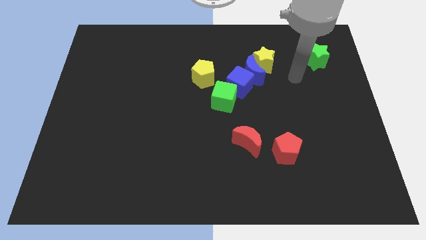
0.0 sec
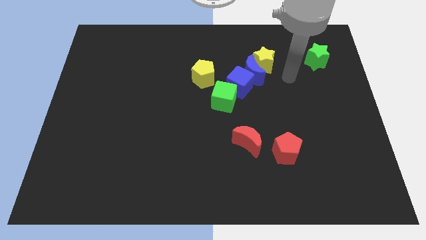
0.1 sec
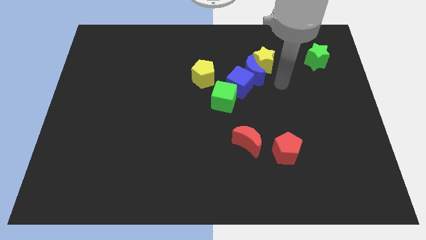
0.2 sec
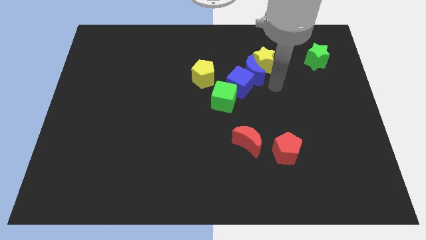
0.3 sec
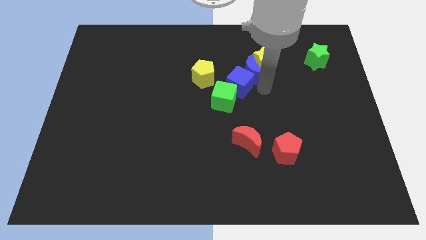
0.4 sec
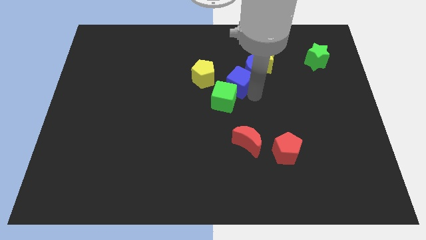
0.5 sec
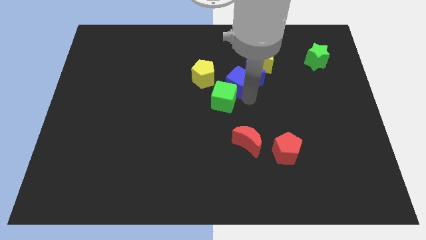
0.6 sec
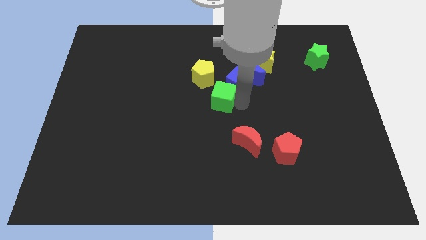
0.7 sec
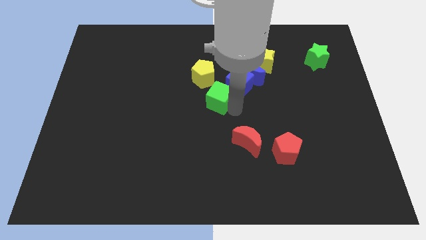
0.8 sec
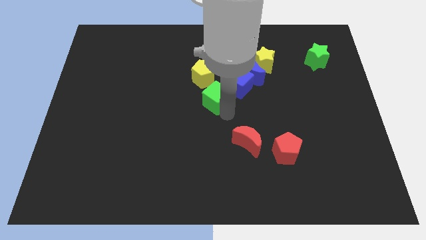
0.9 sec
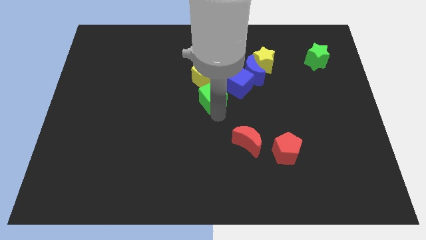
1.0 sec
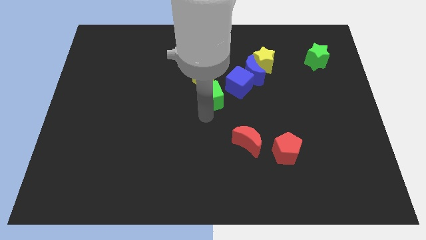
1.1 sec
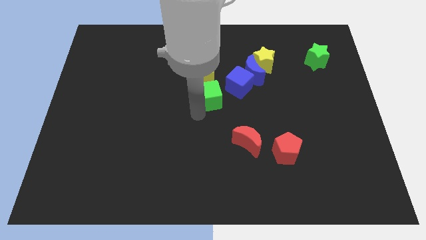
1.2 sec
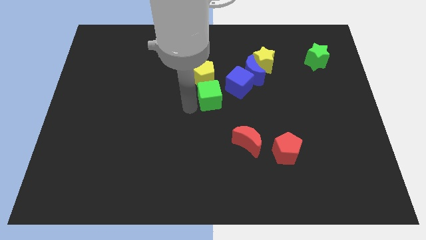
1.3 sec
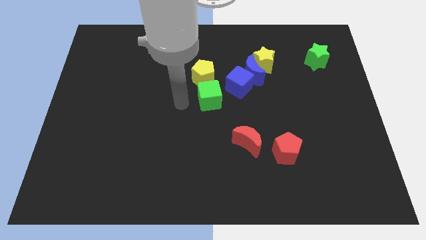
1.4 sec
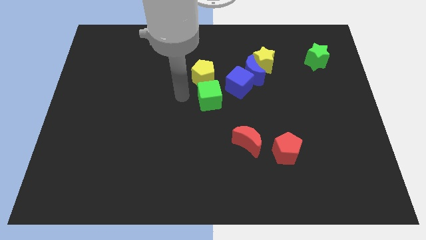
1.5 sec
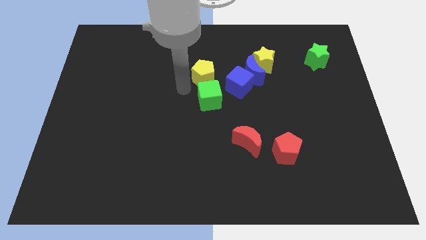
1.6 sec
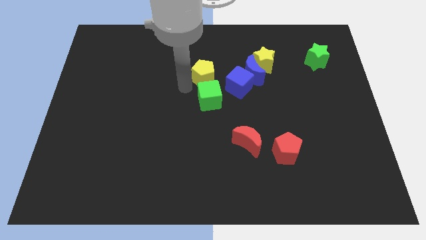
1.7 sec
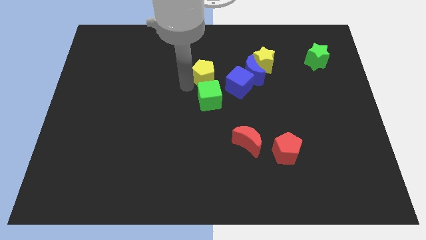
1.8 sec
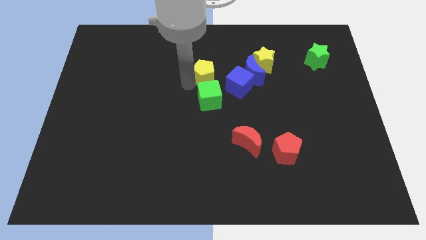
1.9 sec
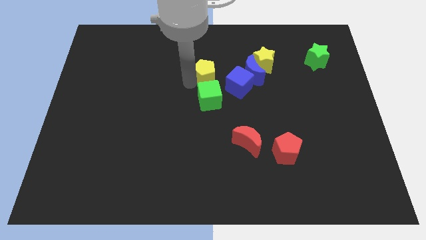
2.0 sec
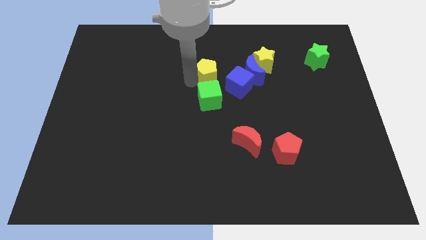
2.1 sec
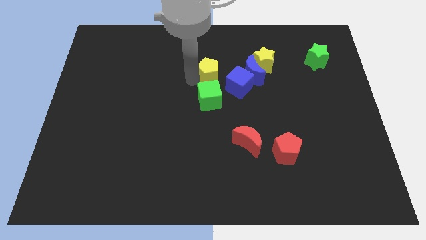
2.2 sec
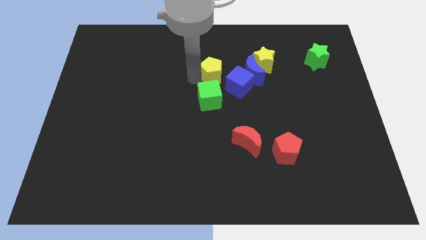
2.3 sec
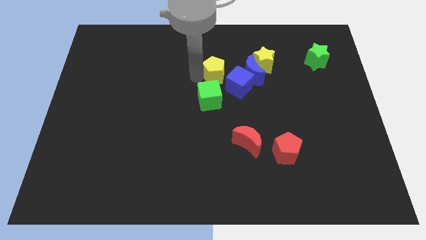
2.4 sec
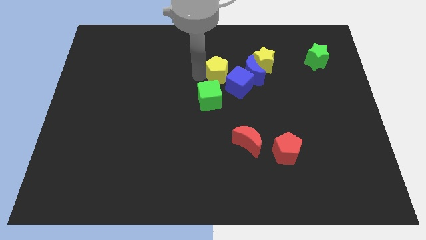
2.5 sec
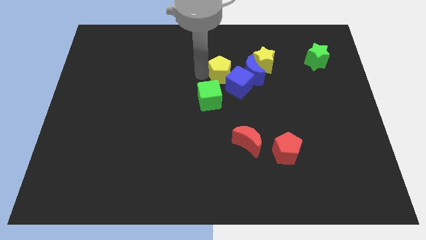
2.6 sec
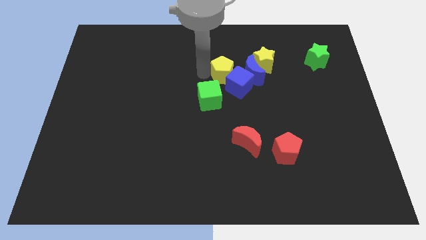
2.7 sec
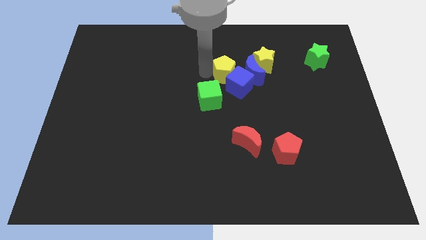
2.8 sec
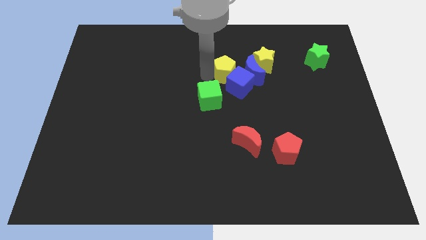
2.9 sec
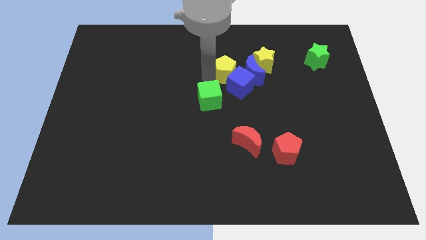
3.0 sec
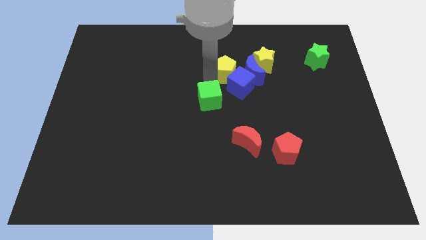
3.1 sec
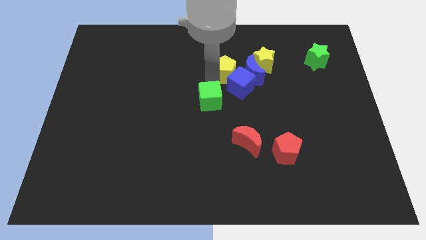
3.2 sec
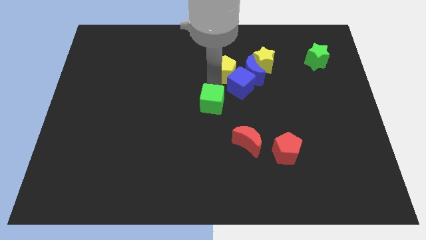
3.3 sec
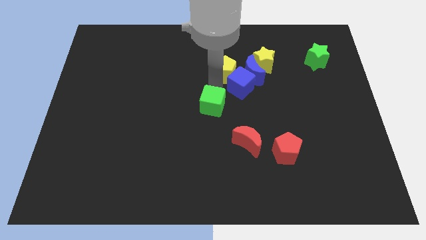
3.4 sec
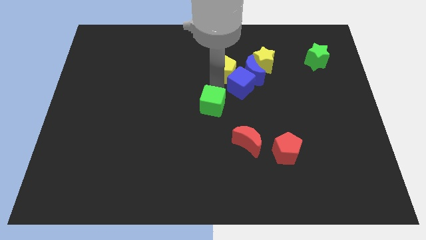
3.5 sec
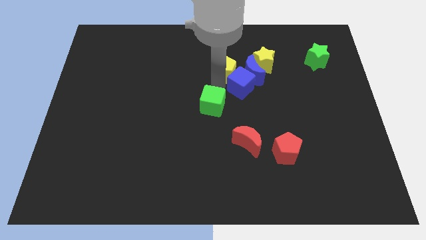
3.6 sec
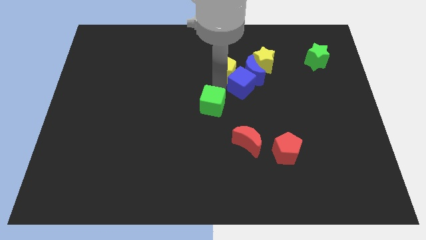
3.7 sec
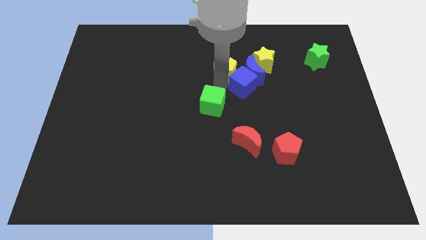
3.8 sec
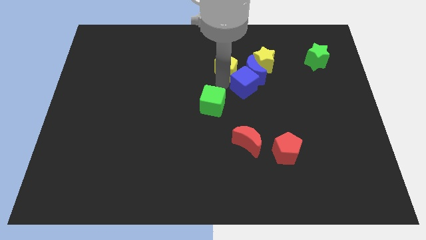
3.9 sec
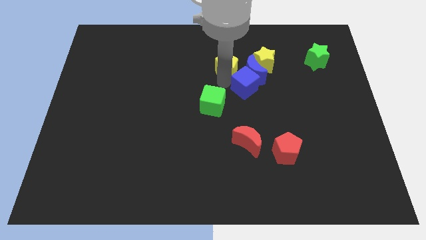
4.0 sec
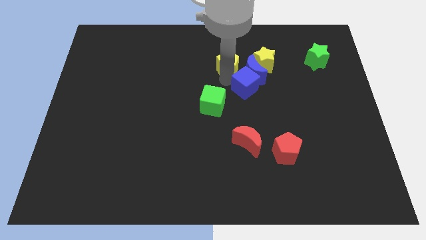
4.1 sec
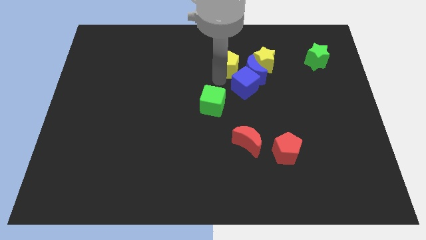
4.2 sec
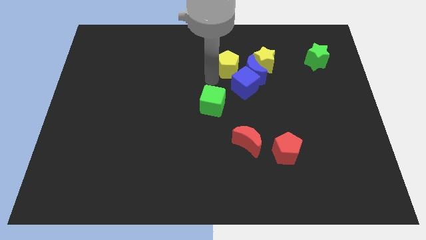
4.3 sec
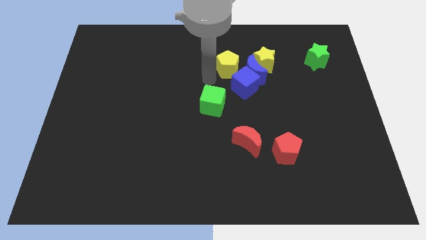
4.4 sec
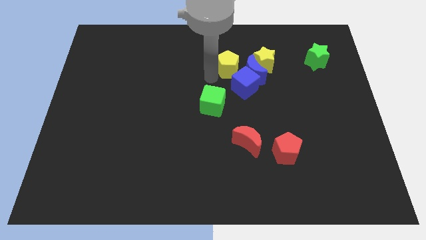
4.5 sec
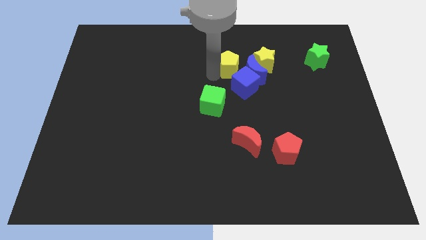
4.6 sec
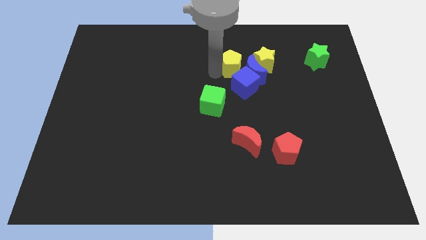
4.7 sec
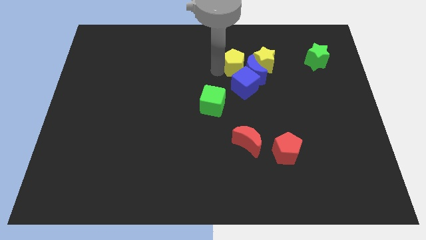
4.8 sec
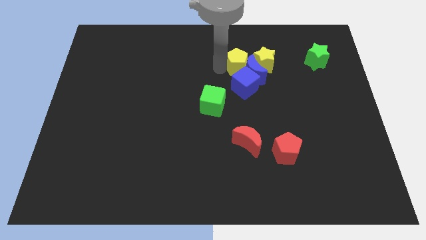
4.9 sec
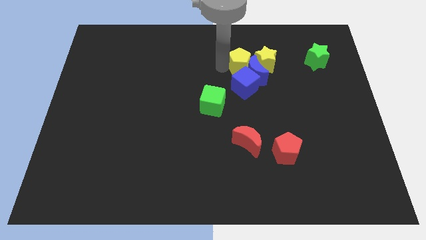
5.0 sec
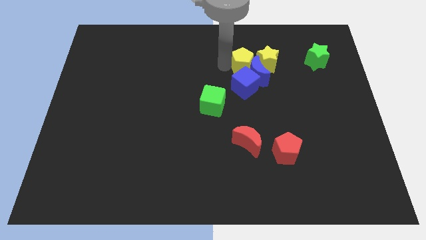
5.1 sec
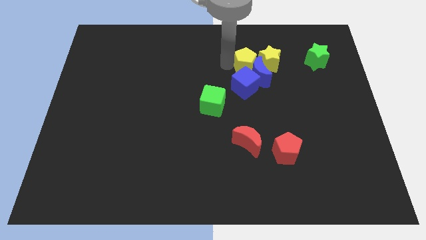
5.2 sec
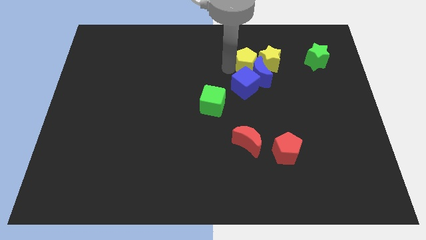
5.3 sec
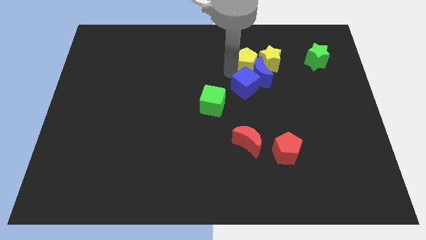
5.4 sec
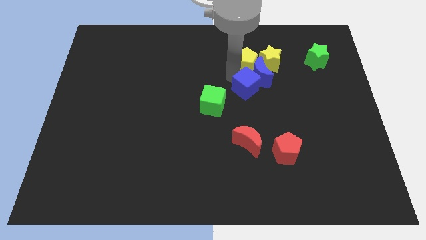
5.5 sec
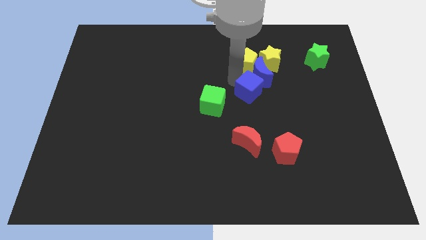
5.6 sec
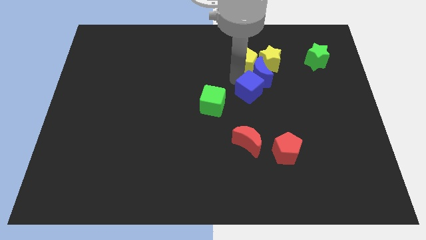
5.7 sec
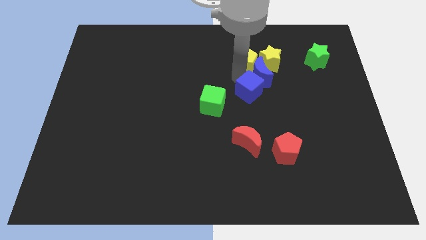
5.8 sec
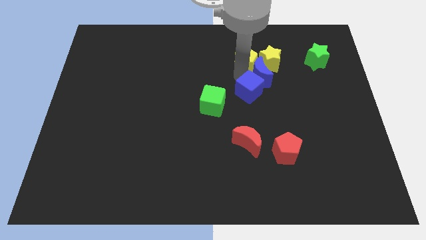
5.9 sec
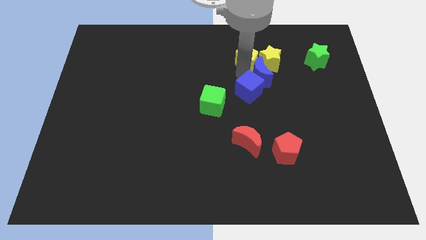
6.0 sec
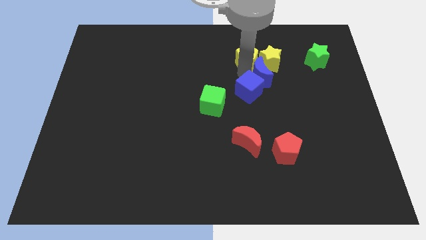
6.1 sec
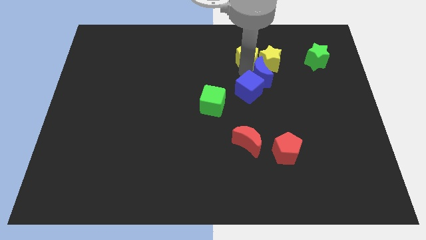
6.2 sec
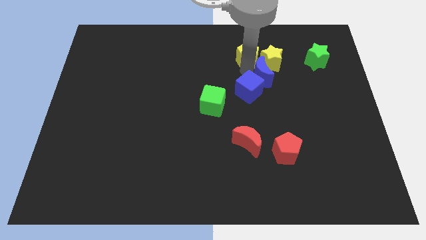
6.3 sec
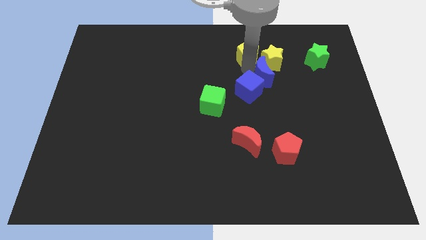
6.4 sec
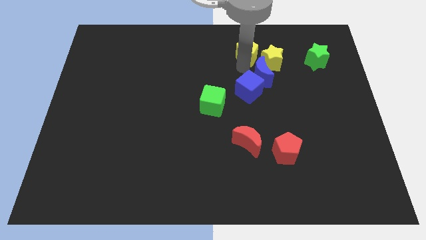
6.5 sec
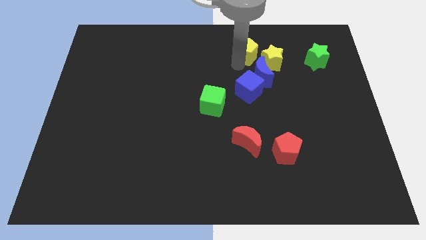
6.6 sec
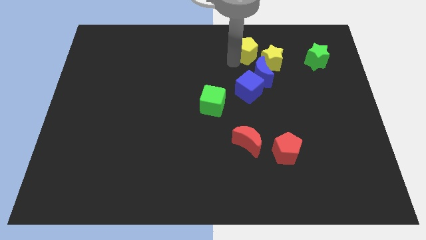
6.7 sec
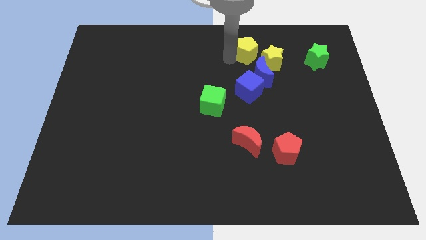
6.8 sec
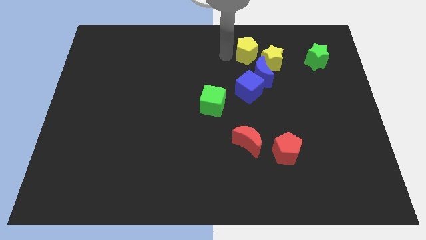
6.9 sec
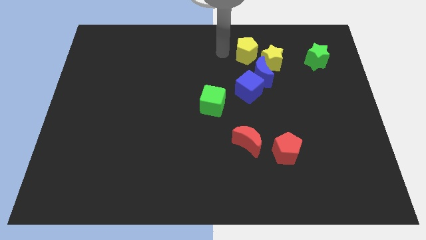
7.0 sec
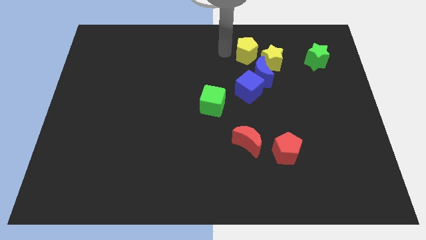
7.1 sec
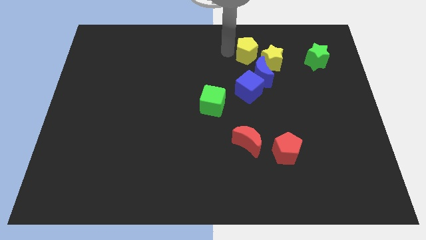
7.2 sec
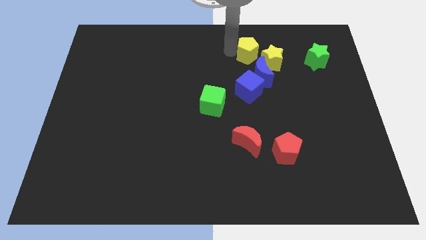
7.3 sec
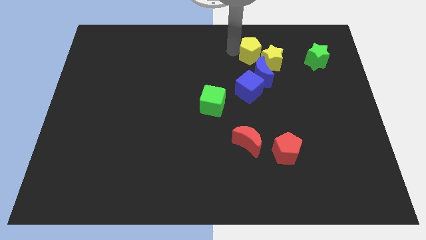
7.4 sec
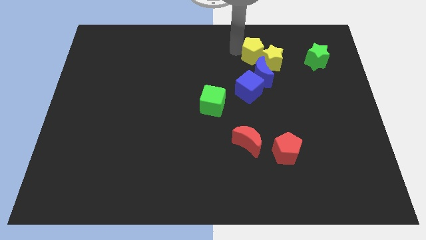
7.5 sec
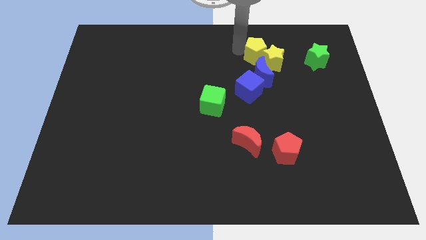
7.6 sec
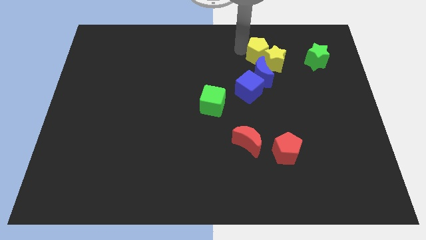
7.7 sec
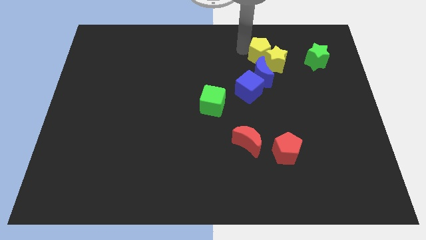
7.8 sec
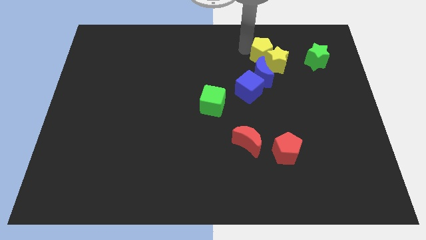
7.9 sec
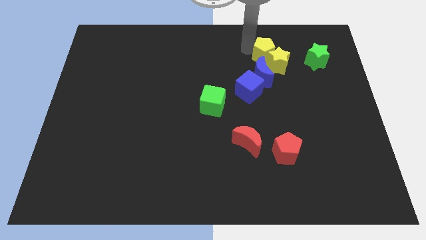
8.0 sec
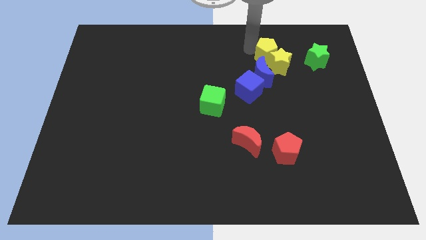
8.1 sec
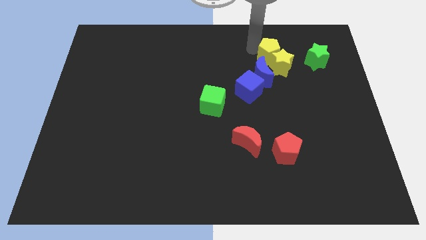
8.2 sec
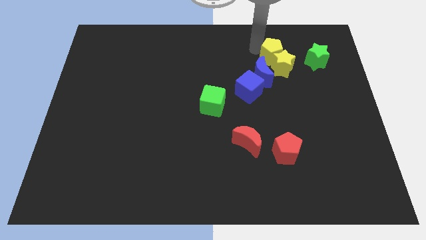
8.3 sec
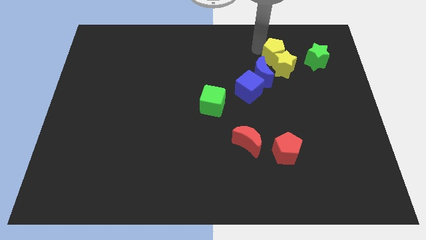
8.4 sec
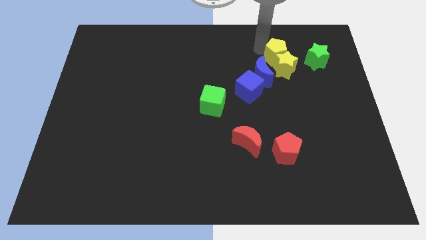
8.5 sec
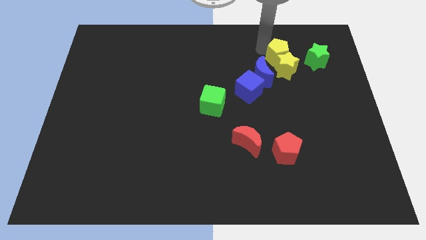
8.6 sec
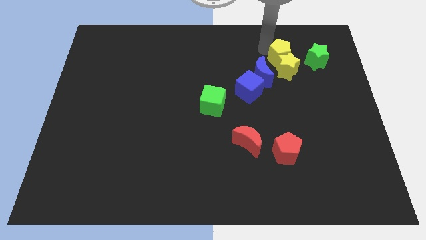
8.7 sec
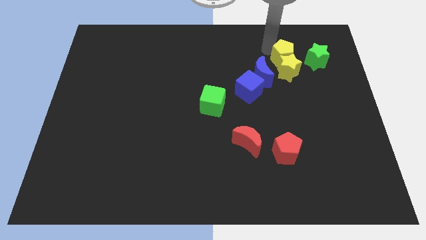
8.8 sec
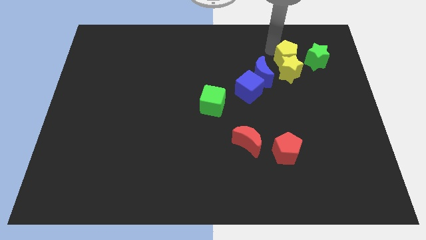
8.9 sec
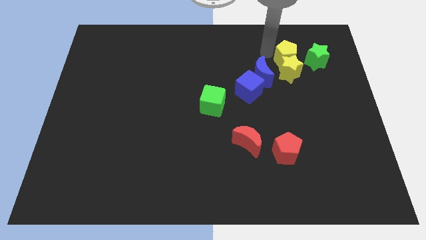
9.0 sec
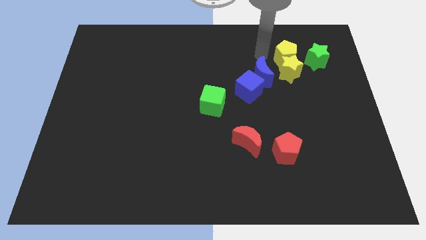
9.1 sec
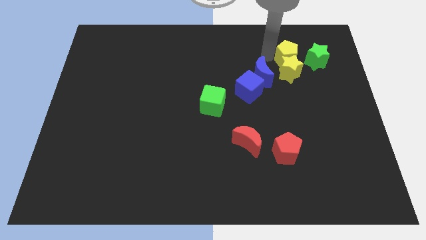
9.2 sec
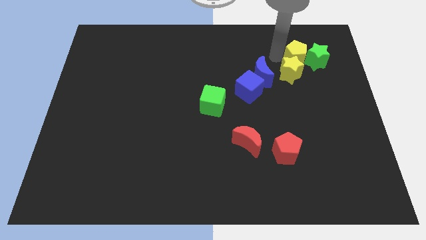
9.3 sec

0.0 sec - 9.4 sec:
slide the yellow pentagon next to the green star
